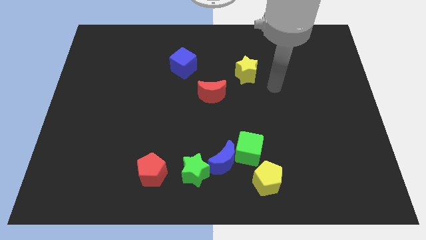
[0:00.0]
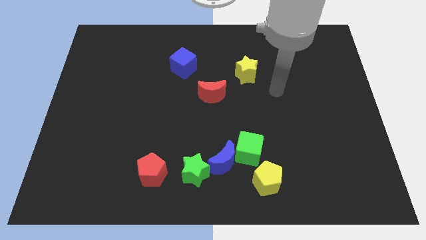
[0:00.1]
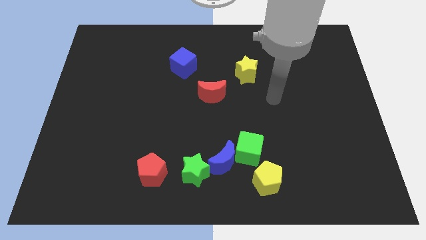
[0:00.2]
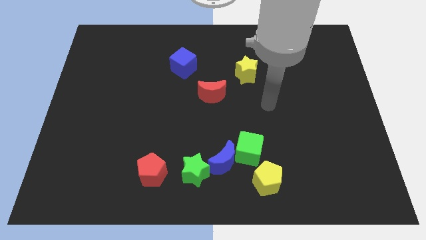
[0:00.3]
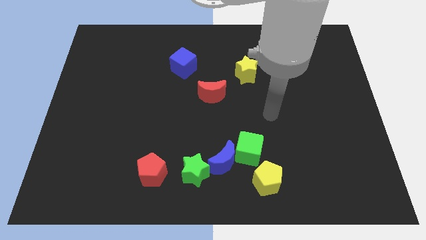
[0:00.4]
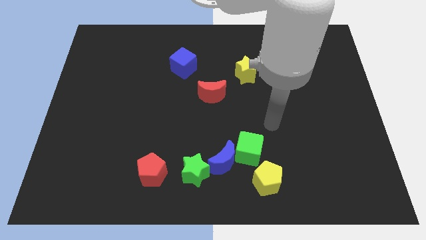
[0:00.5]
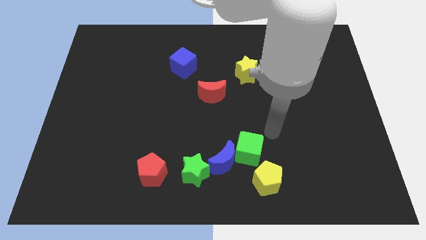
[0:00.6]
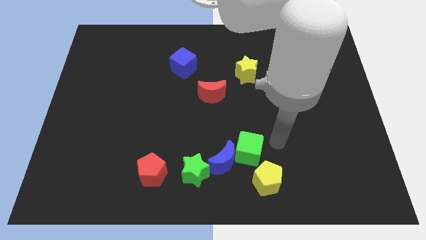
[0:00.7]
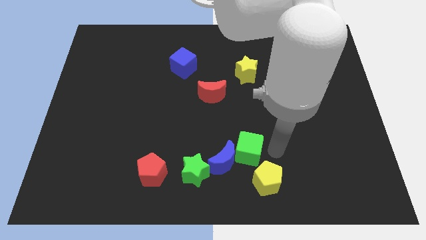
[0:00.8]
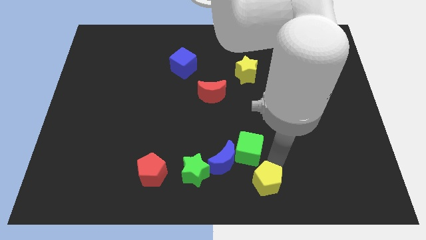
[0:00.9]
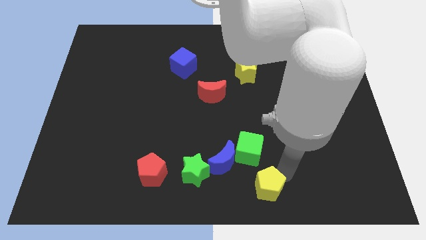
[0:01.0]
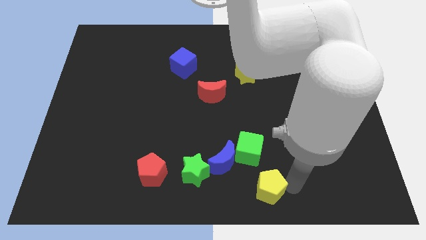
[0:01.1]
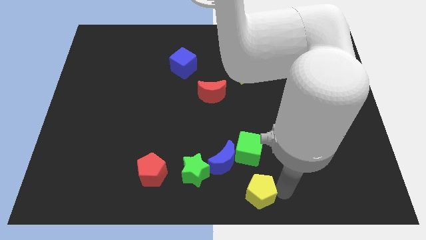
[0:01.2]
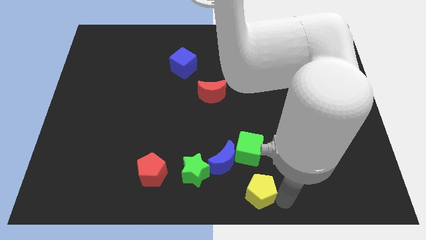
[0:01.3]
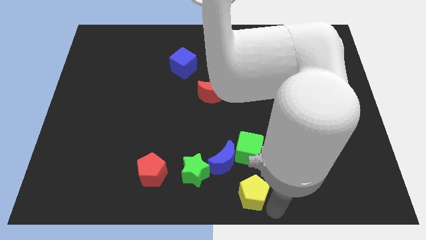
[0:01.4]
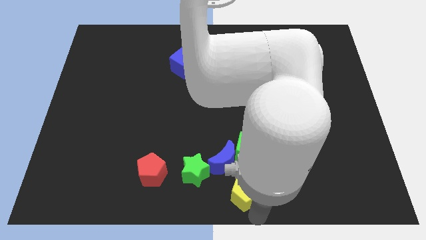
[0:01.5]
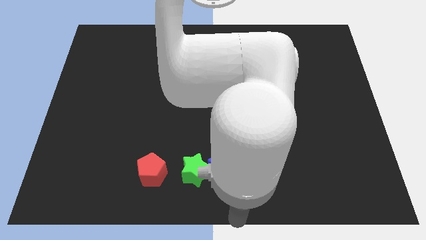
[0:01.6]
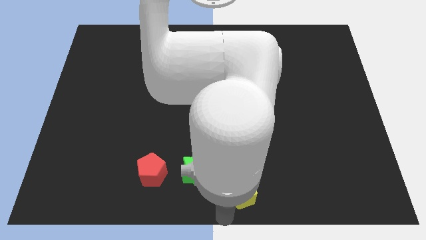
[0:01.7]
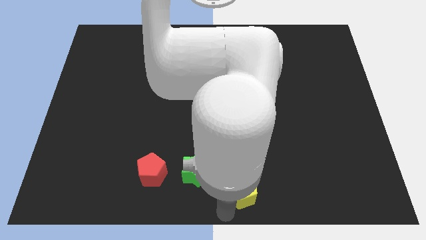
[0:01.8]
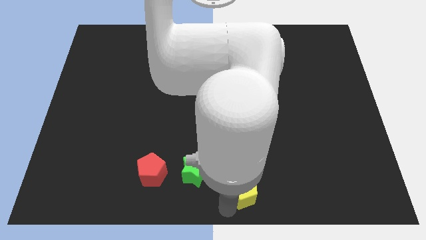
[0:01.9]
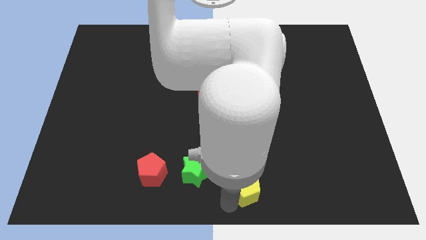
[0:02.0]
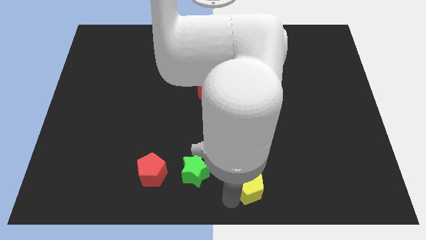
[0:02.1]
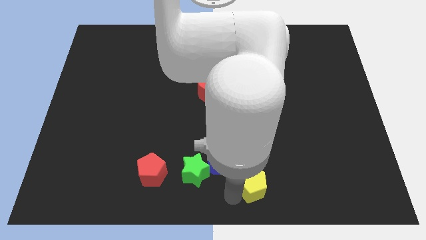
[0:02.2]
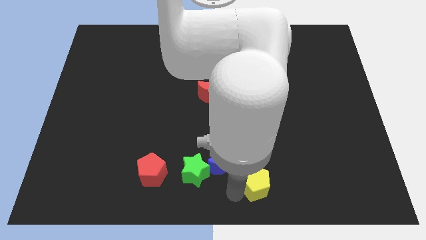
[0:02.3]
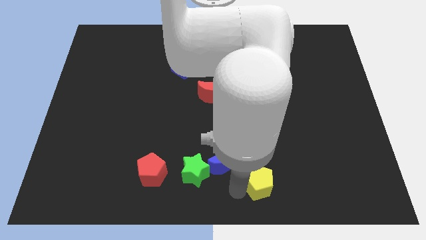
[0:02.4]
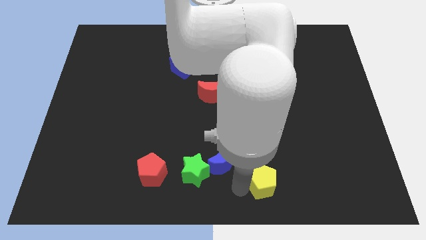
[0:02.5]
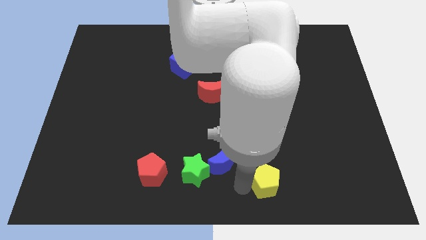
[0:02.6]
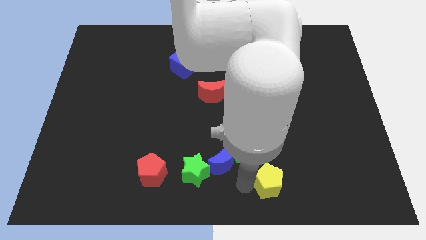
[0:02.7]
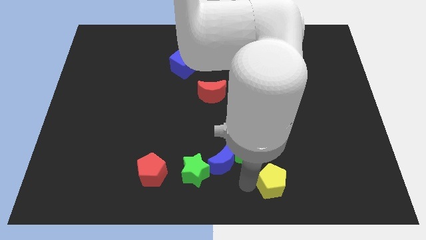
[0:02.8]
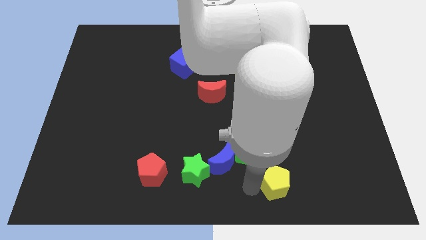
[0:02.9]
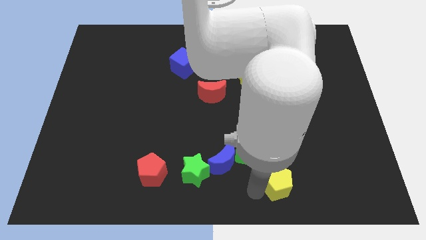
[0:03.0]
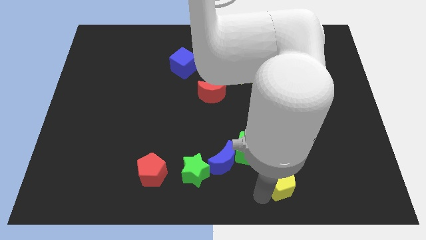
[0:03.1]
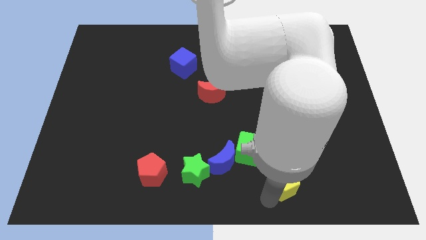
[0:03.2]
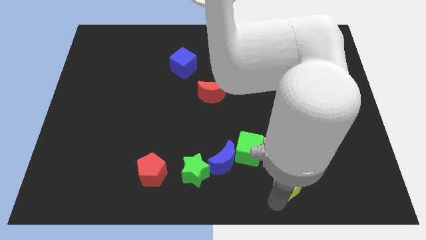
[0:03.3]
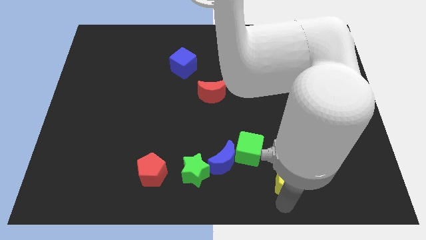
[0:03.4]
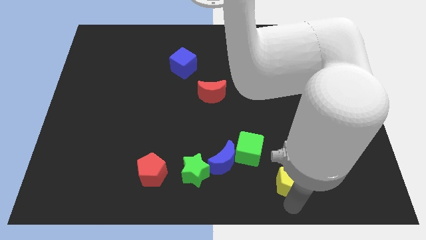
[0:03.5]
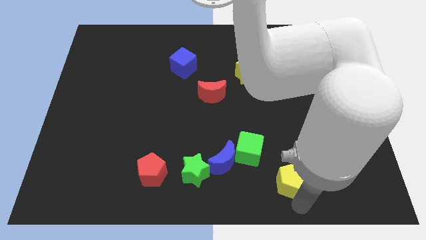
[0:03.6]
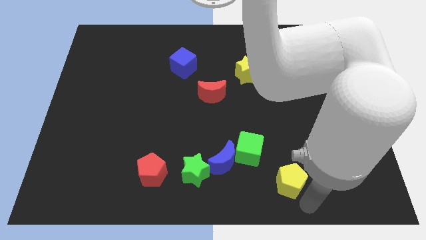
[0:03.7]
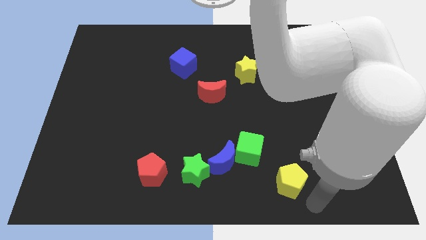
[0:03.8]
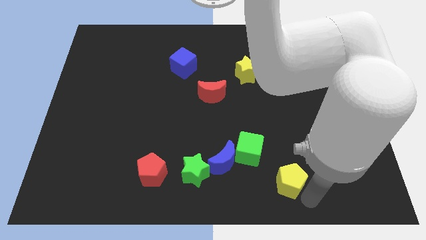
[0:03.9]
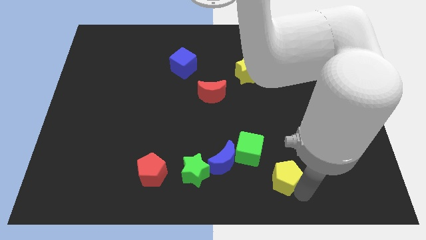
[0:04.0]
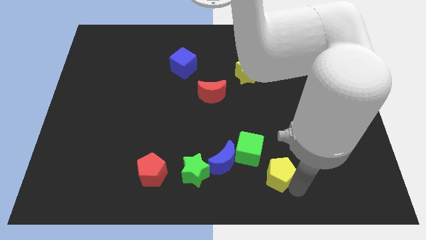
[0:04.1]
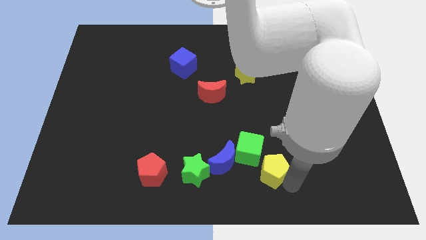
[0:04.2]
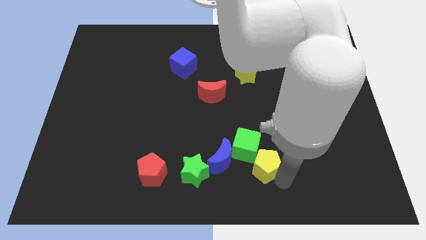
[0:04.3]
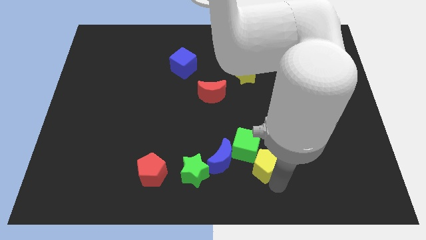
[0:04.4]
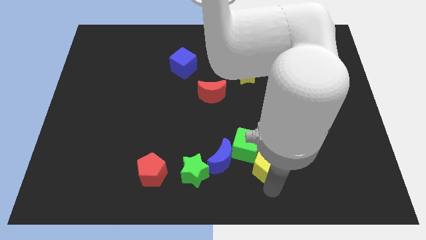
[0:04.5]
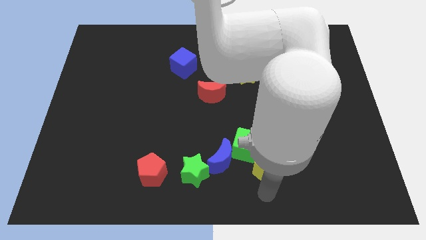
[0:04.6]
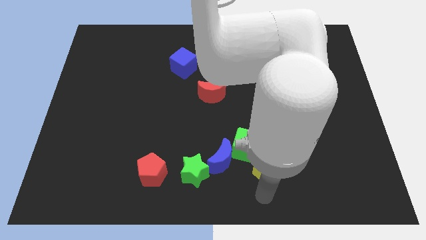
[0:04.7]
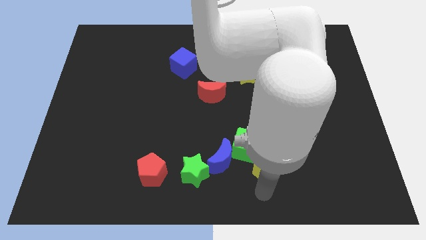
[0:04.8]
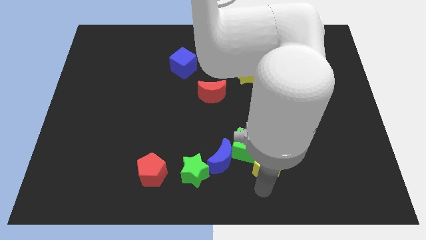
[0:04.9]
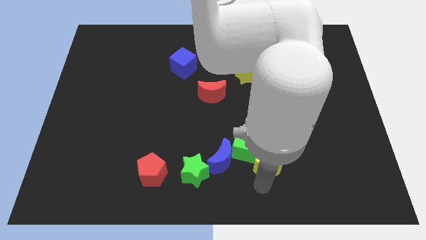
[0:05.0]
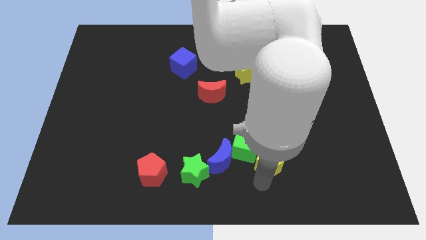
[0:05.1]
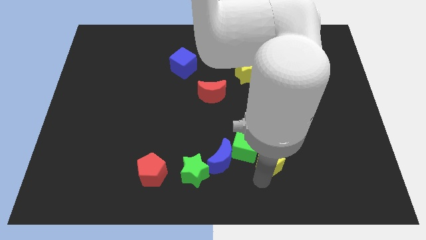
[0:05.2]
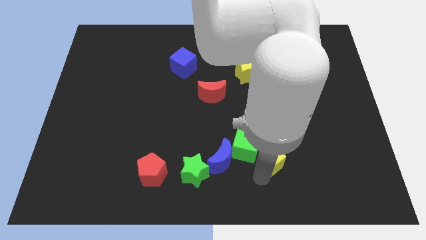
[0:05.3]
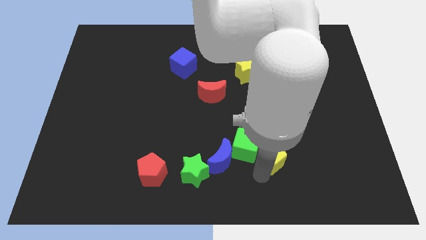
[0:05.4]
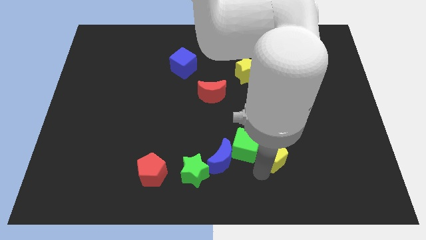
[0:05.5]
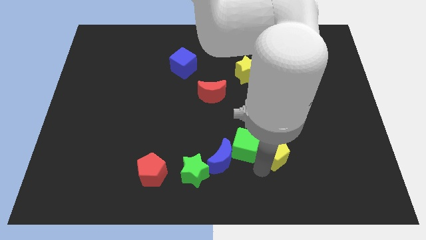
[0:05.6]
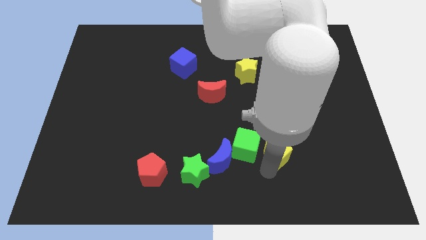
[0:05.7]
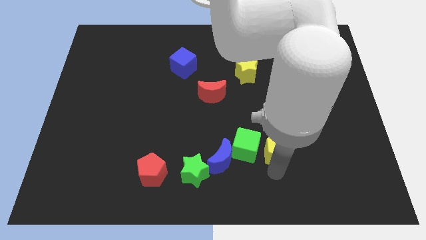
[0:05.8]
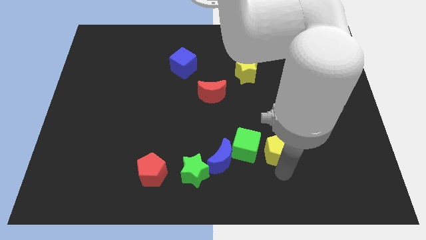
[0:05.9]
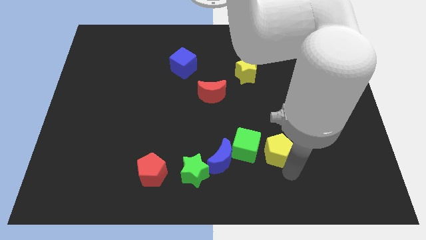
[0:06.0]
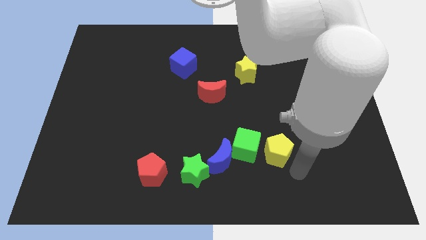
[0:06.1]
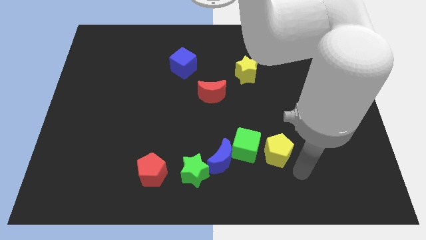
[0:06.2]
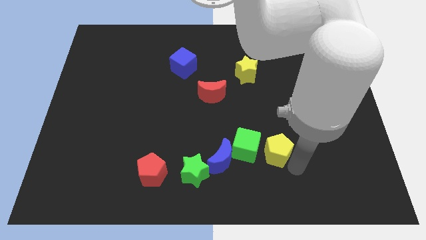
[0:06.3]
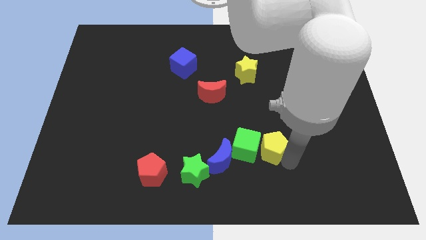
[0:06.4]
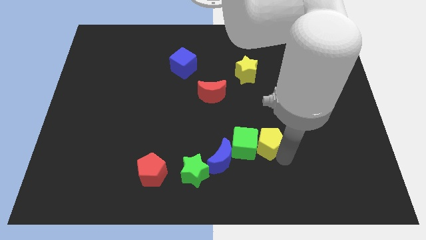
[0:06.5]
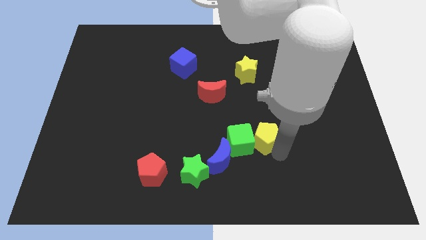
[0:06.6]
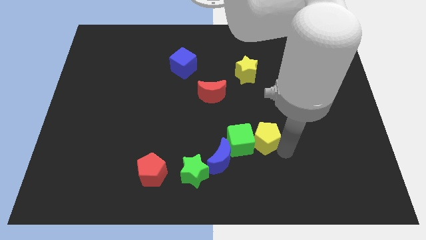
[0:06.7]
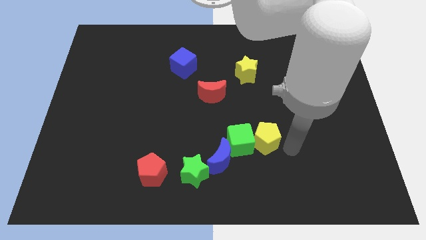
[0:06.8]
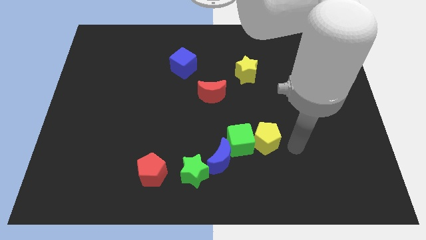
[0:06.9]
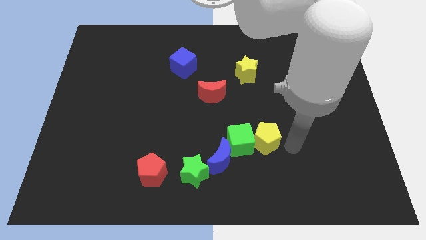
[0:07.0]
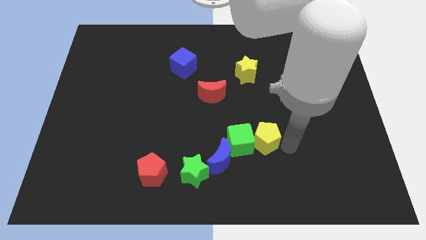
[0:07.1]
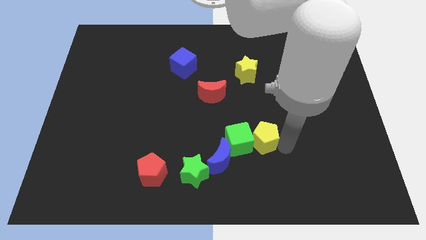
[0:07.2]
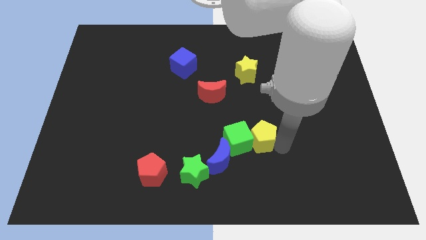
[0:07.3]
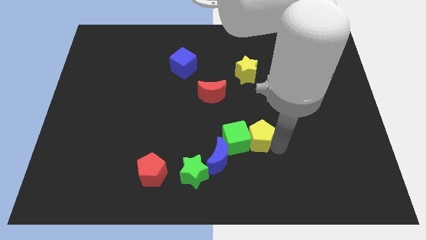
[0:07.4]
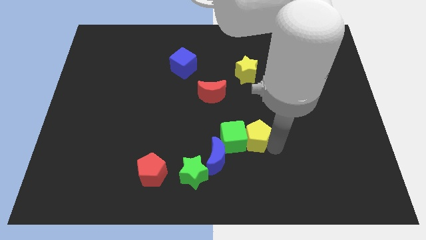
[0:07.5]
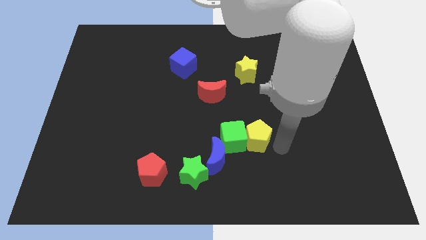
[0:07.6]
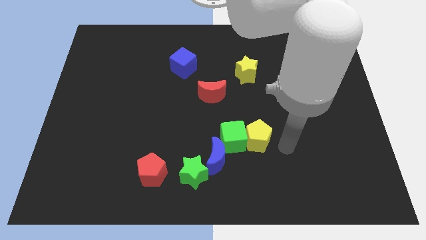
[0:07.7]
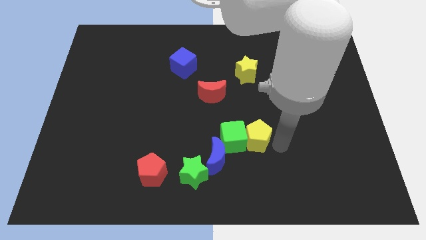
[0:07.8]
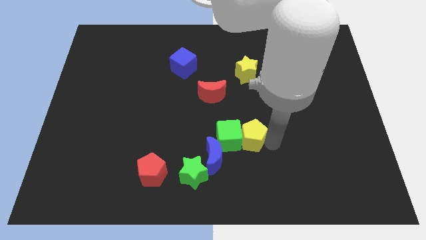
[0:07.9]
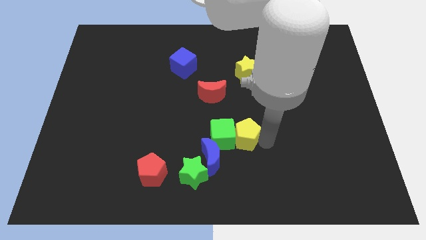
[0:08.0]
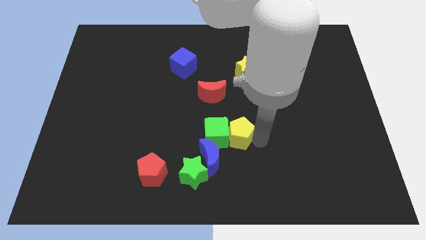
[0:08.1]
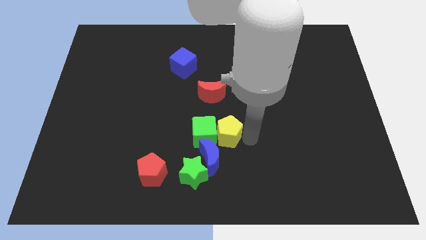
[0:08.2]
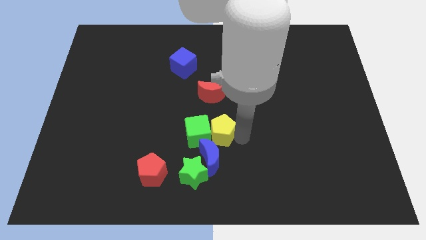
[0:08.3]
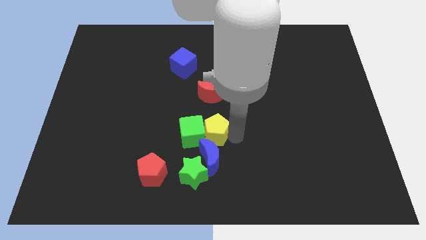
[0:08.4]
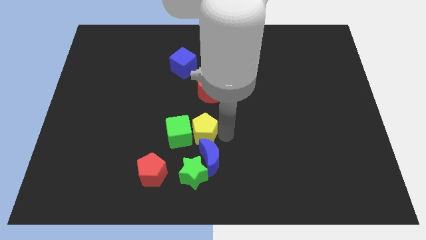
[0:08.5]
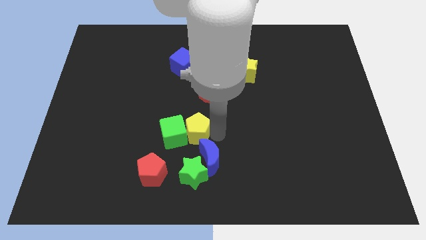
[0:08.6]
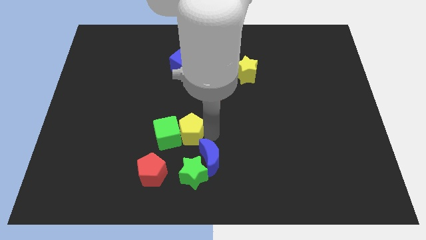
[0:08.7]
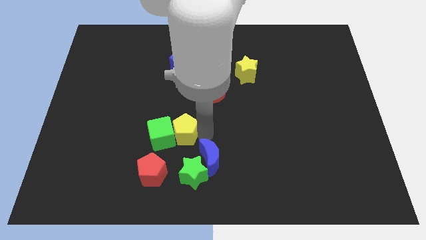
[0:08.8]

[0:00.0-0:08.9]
slide the yellow pentagon up and to the left
